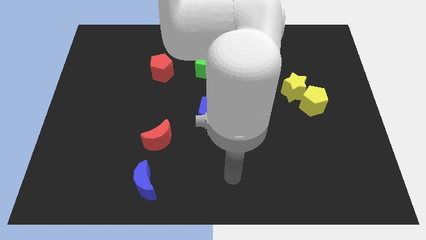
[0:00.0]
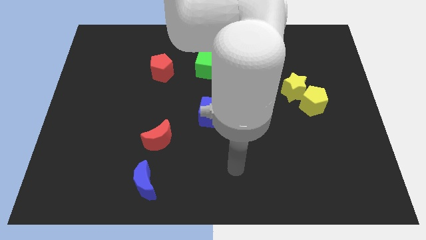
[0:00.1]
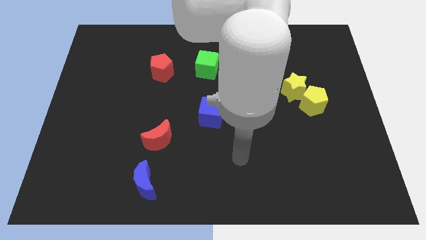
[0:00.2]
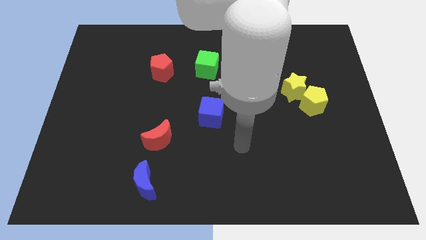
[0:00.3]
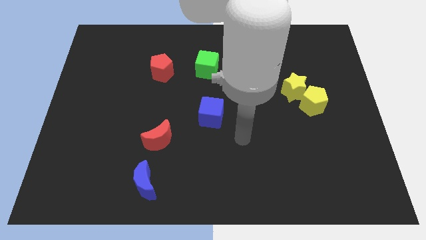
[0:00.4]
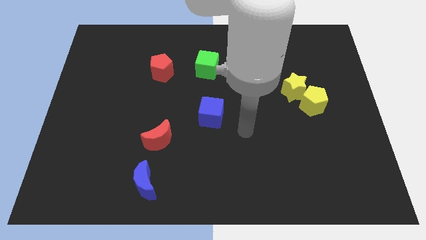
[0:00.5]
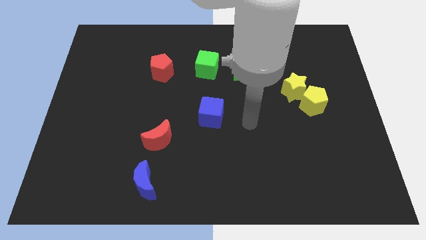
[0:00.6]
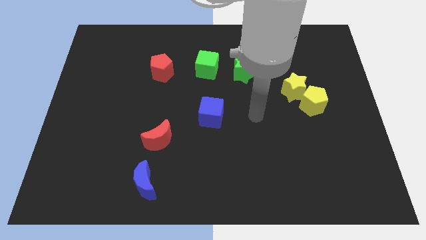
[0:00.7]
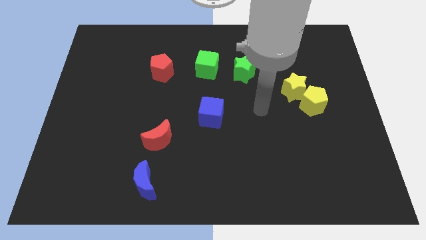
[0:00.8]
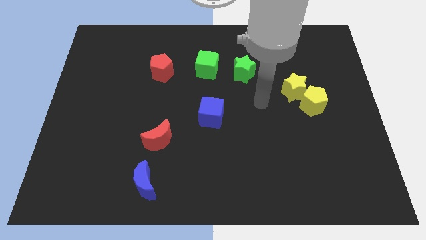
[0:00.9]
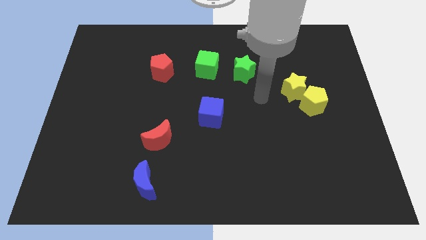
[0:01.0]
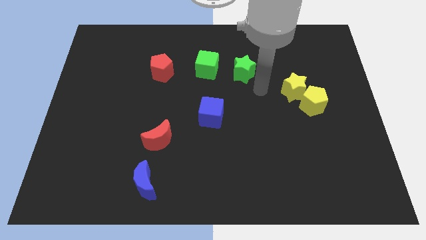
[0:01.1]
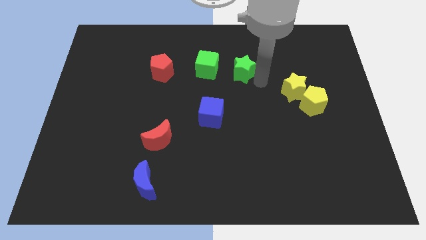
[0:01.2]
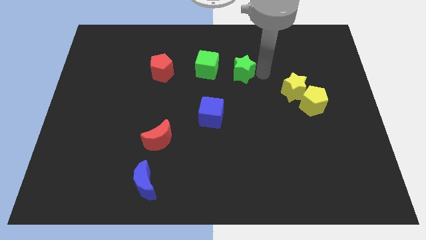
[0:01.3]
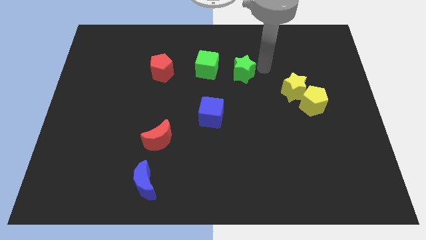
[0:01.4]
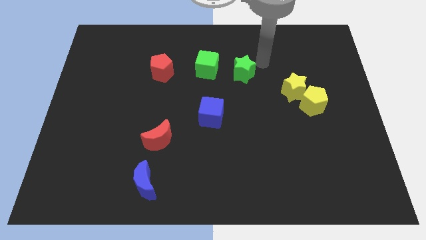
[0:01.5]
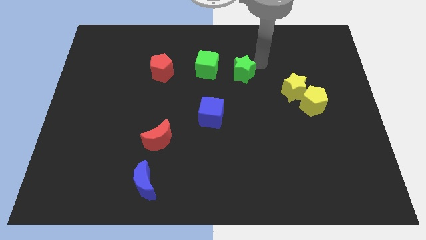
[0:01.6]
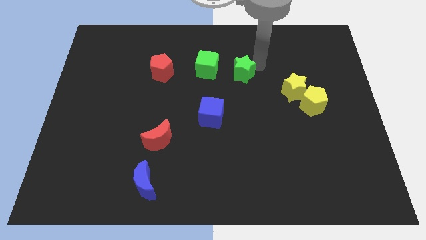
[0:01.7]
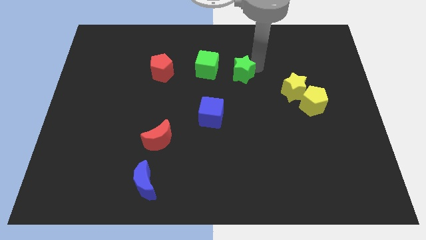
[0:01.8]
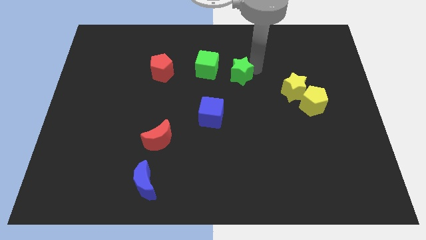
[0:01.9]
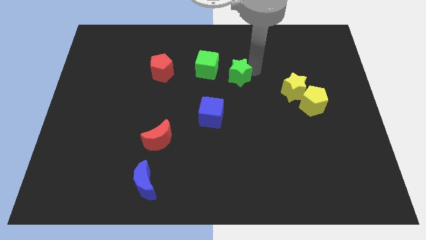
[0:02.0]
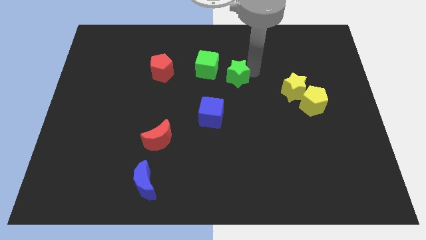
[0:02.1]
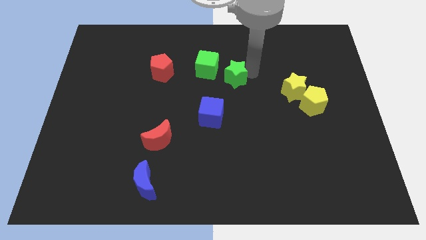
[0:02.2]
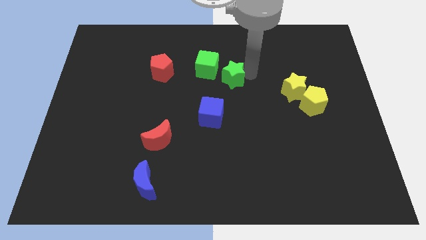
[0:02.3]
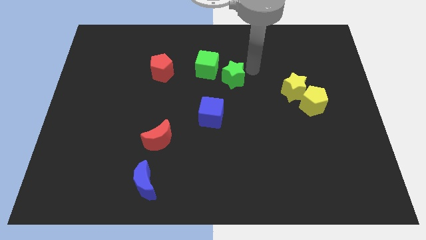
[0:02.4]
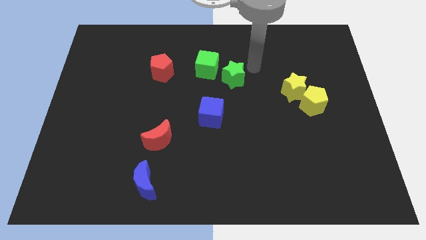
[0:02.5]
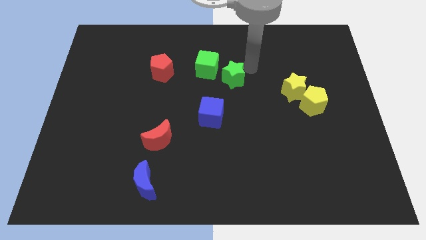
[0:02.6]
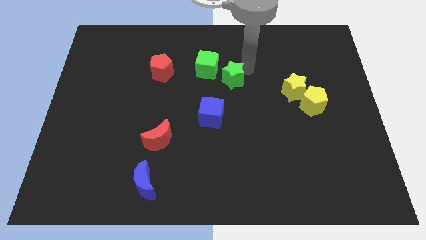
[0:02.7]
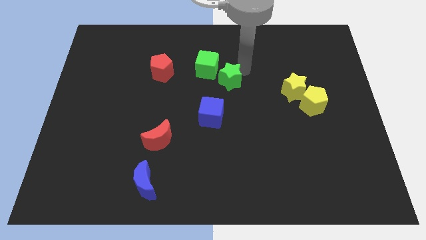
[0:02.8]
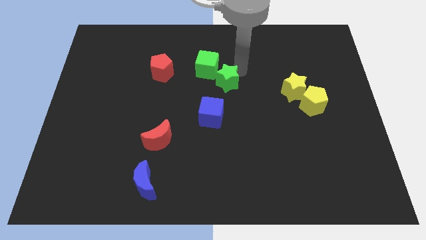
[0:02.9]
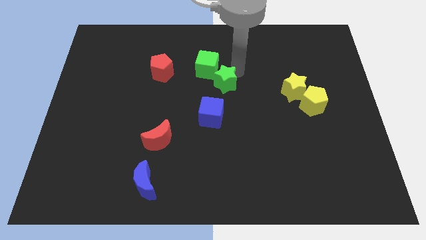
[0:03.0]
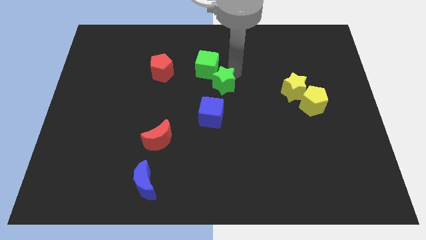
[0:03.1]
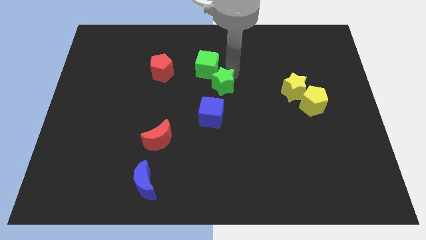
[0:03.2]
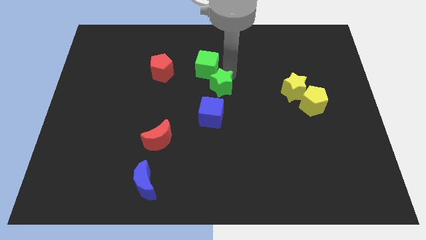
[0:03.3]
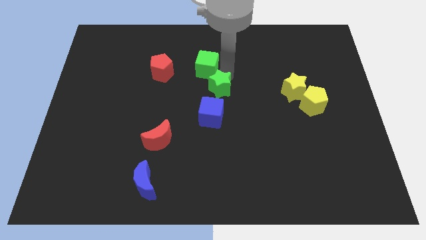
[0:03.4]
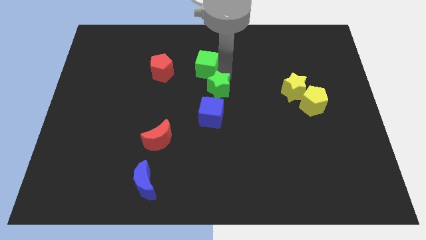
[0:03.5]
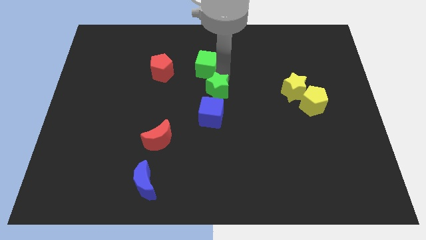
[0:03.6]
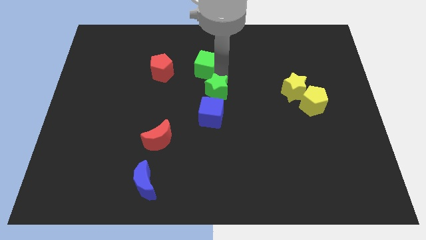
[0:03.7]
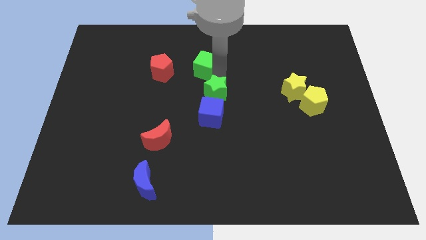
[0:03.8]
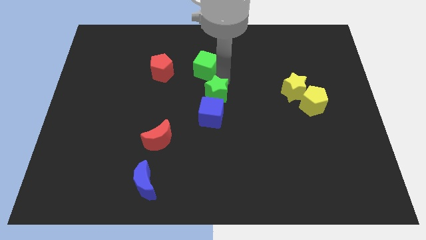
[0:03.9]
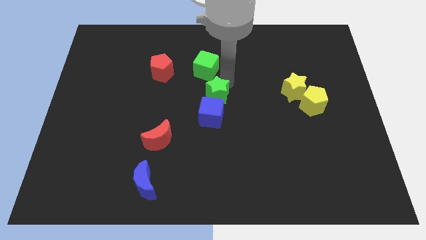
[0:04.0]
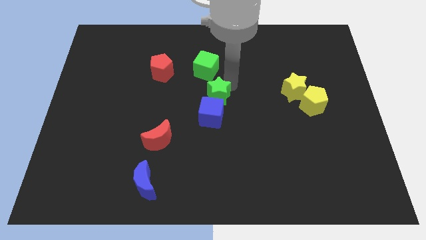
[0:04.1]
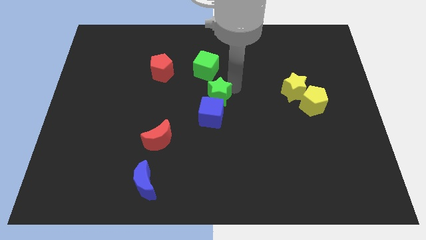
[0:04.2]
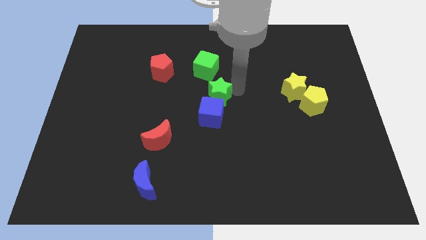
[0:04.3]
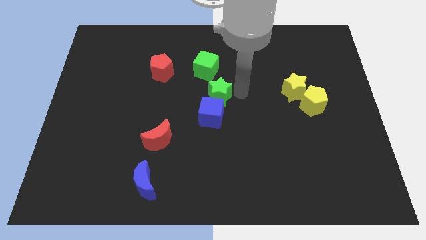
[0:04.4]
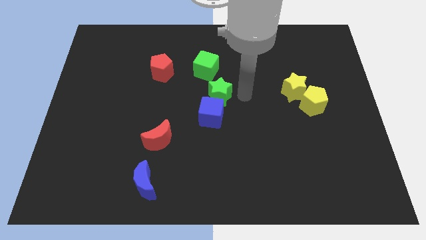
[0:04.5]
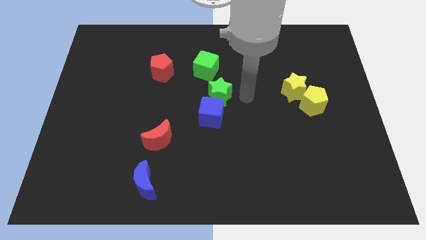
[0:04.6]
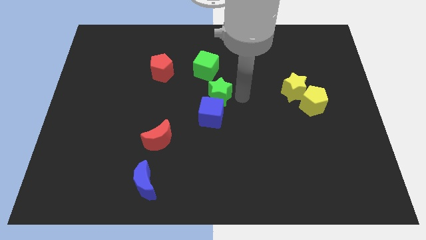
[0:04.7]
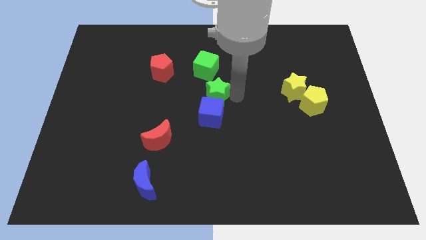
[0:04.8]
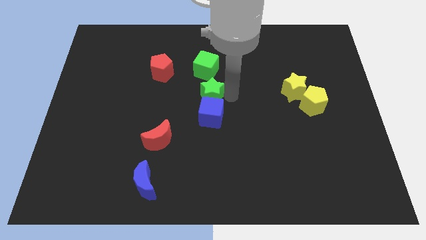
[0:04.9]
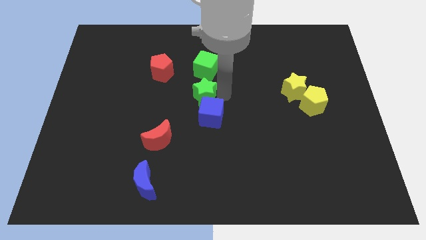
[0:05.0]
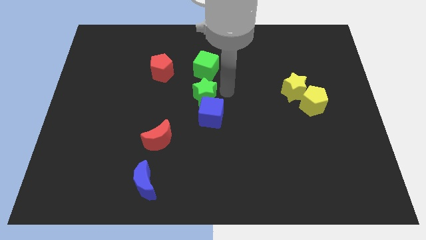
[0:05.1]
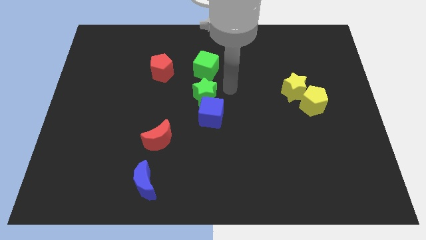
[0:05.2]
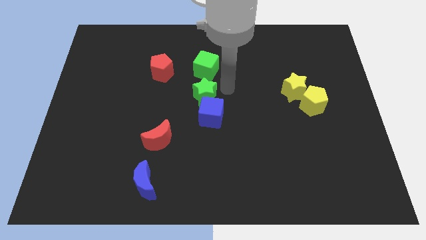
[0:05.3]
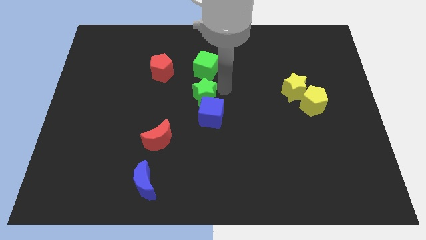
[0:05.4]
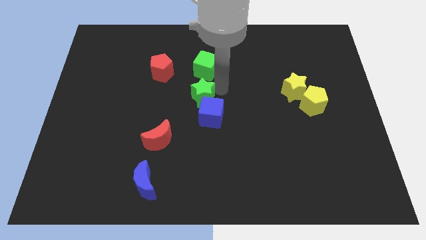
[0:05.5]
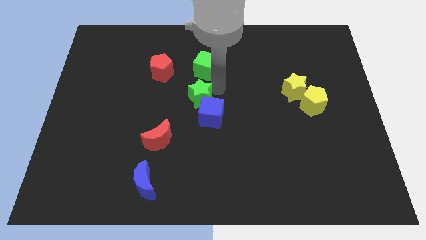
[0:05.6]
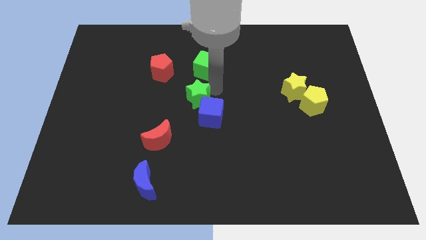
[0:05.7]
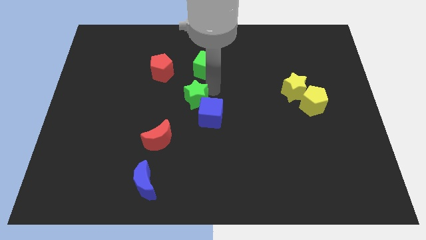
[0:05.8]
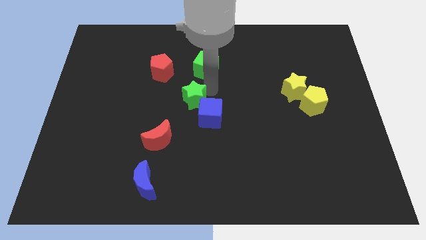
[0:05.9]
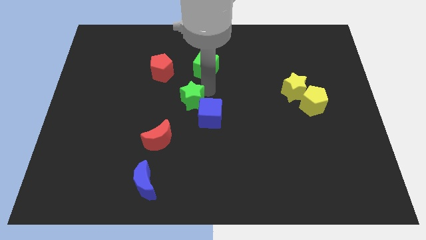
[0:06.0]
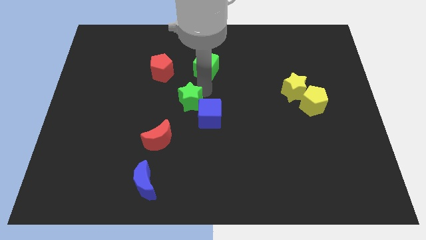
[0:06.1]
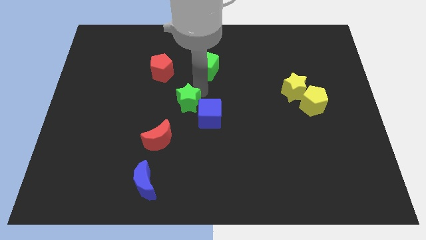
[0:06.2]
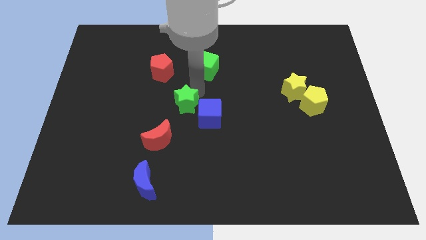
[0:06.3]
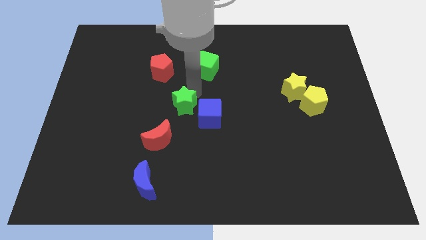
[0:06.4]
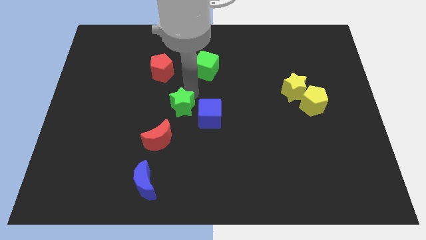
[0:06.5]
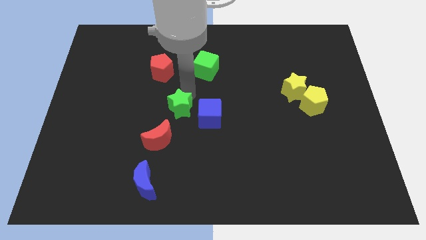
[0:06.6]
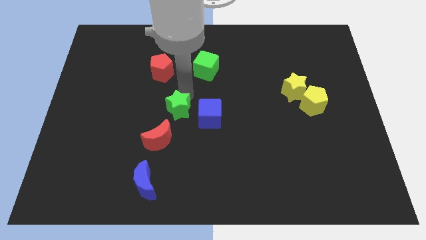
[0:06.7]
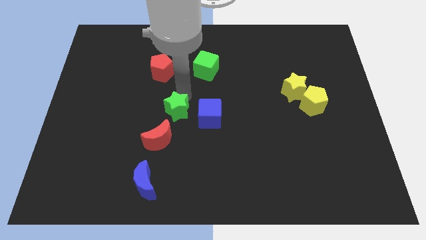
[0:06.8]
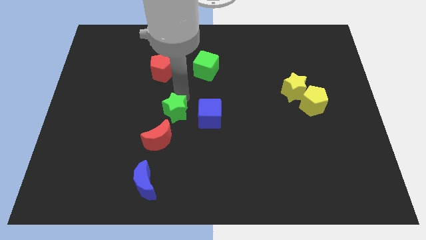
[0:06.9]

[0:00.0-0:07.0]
slide the green star down and left diagonally

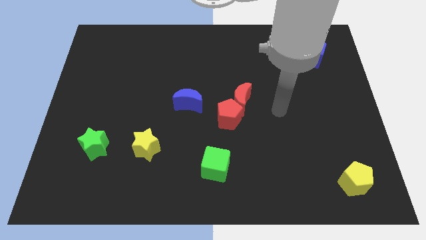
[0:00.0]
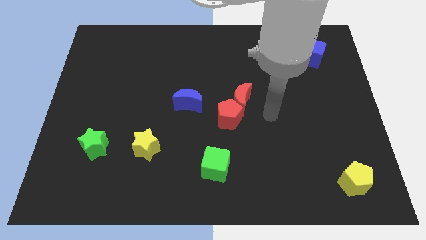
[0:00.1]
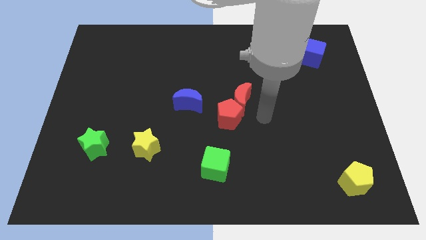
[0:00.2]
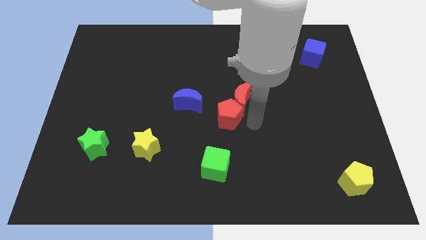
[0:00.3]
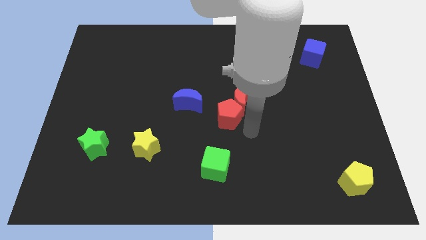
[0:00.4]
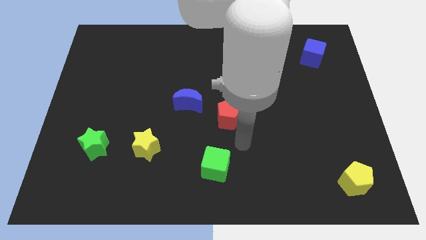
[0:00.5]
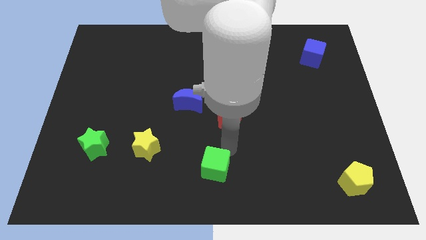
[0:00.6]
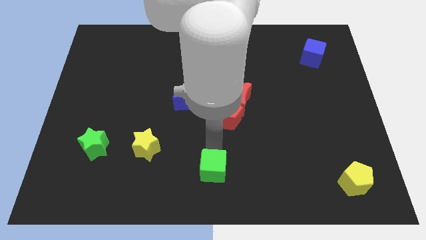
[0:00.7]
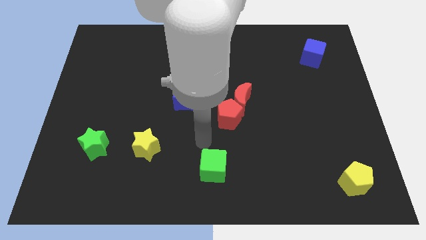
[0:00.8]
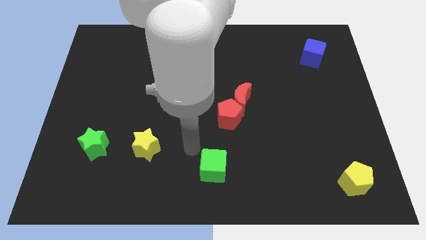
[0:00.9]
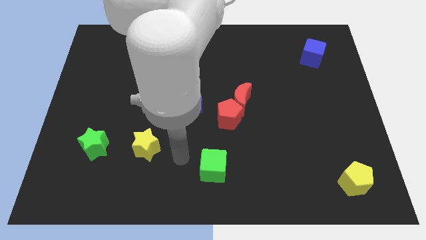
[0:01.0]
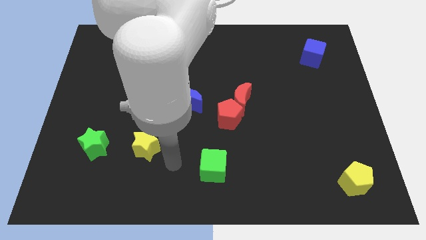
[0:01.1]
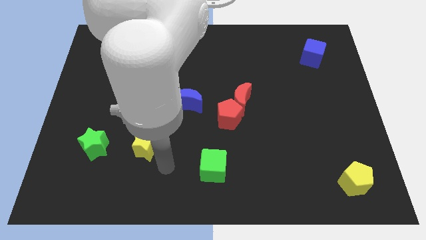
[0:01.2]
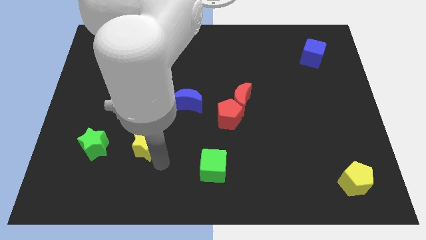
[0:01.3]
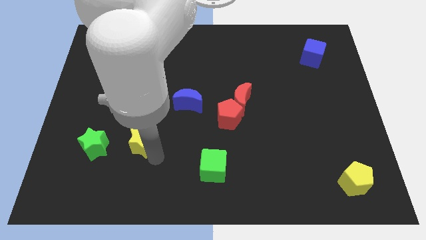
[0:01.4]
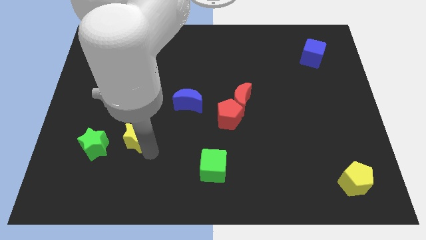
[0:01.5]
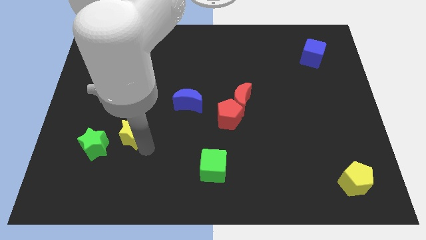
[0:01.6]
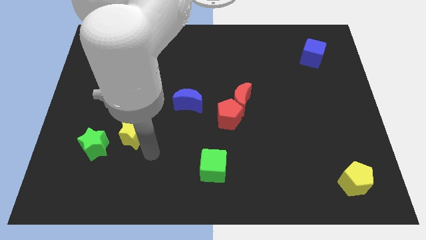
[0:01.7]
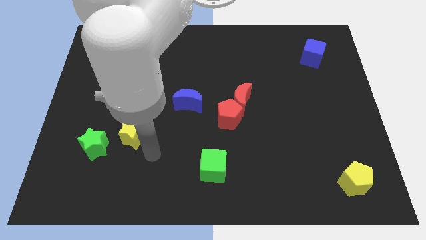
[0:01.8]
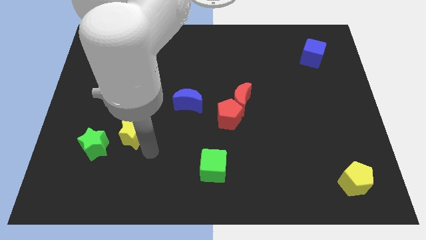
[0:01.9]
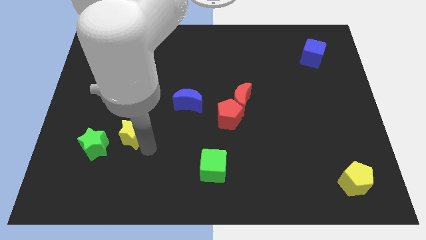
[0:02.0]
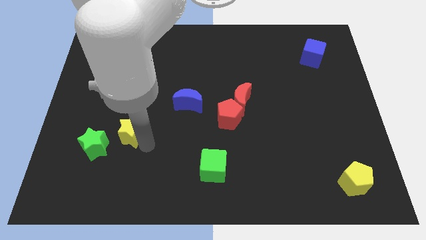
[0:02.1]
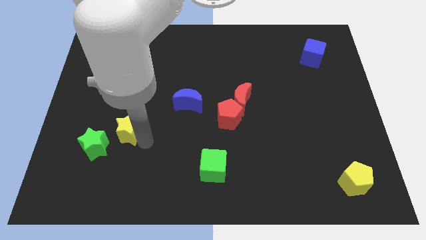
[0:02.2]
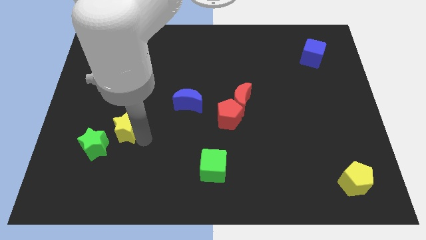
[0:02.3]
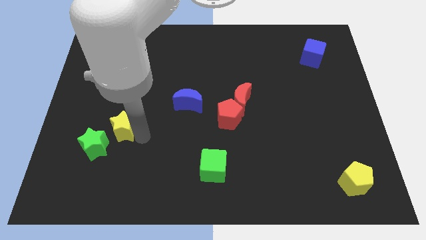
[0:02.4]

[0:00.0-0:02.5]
move the yellow star up and to the left somewhat
